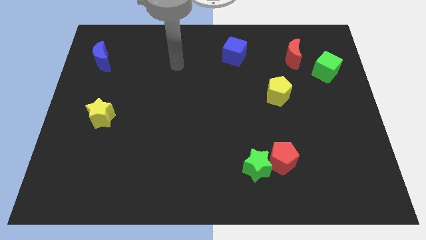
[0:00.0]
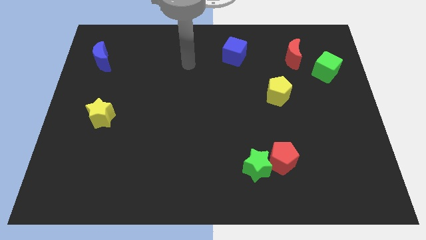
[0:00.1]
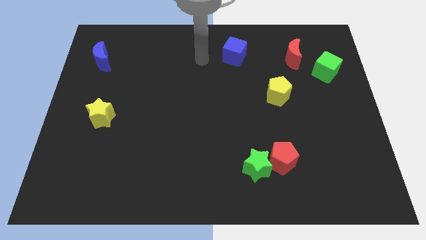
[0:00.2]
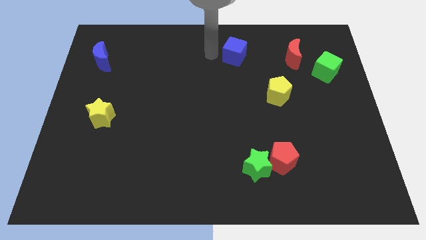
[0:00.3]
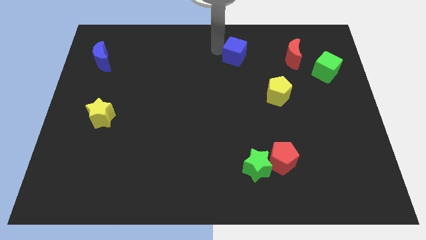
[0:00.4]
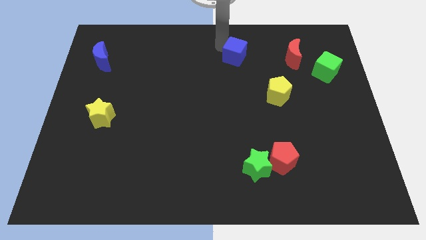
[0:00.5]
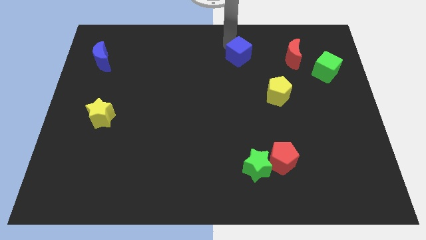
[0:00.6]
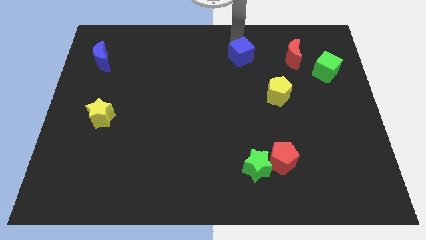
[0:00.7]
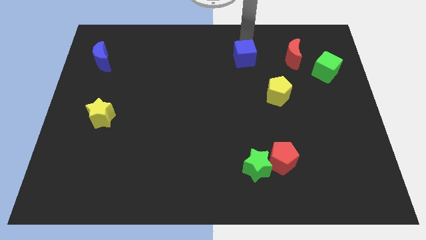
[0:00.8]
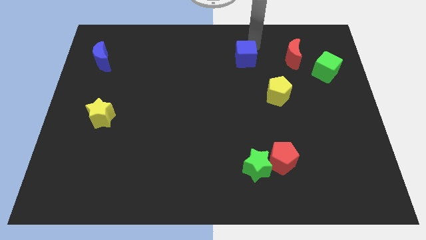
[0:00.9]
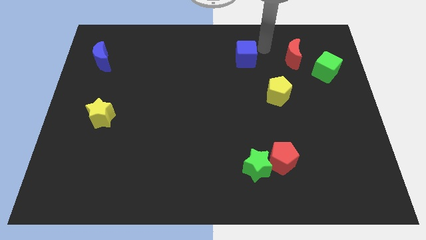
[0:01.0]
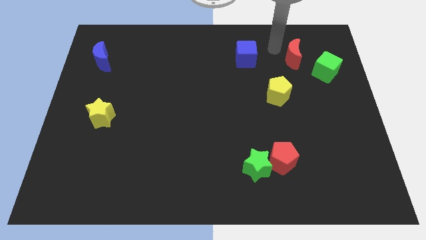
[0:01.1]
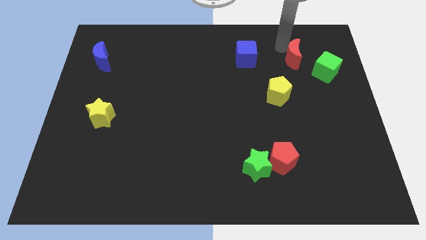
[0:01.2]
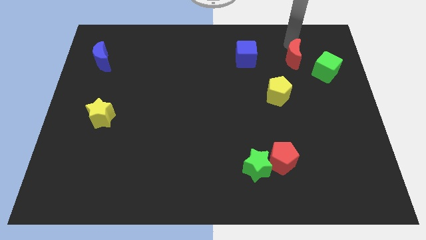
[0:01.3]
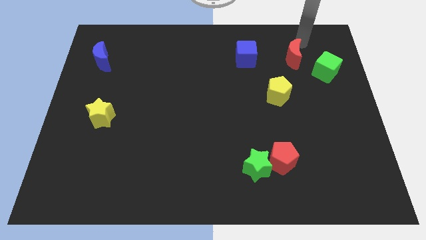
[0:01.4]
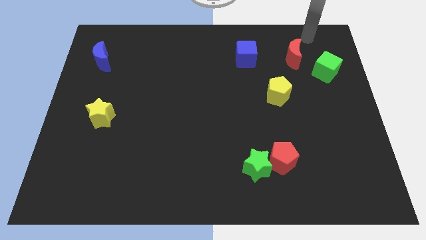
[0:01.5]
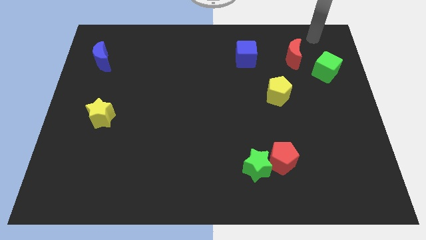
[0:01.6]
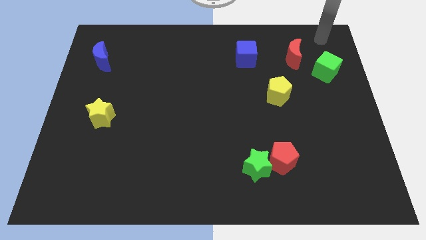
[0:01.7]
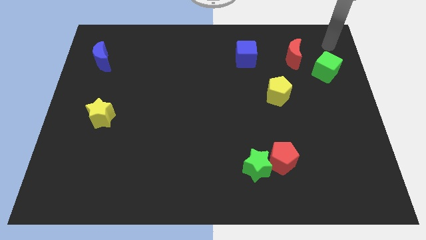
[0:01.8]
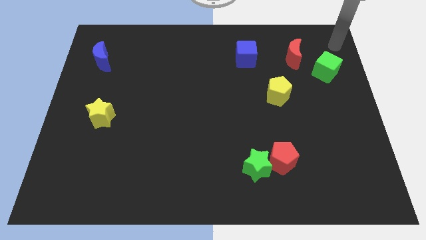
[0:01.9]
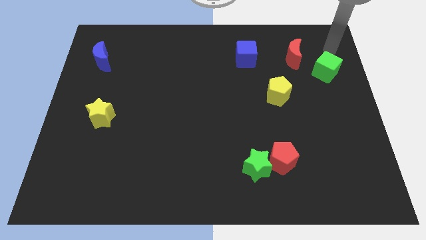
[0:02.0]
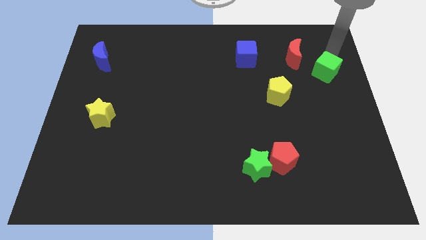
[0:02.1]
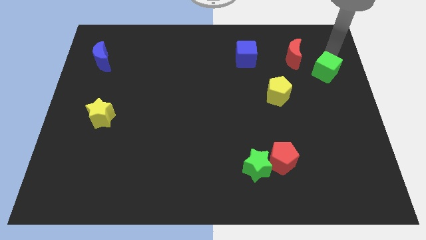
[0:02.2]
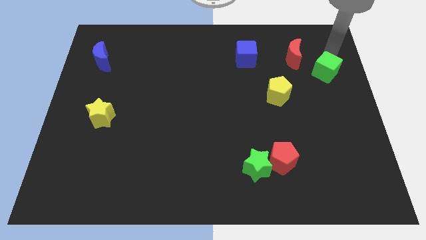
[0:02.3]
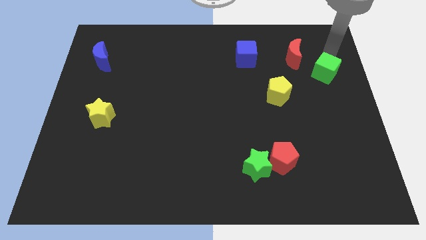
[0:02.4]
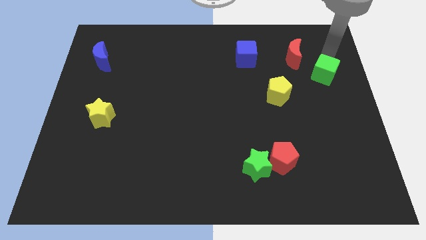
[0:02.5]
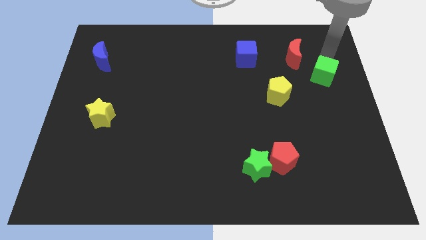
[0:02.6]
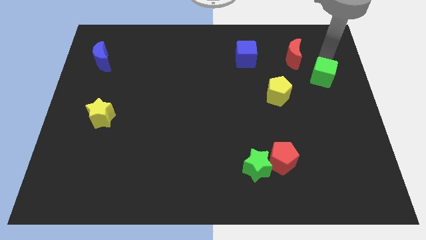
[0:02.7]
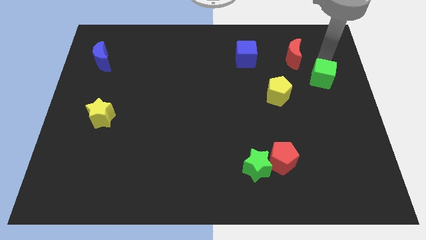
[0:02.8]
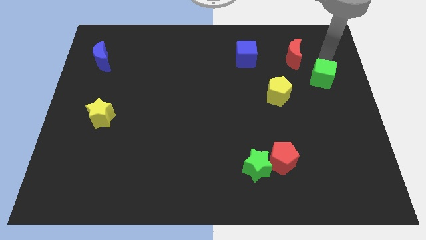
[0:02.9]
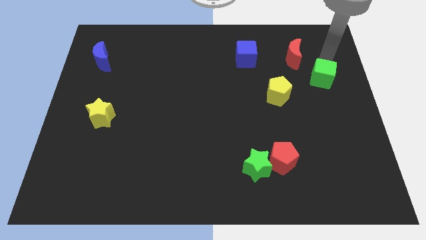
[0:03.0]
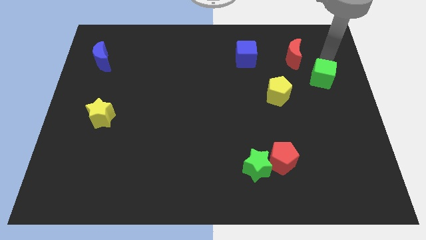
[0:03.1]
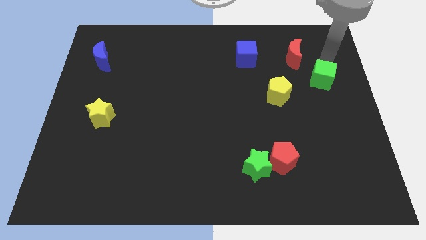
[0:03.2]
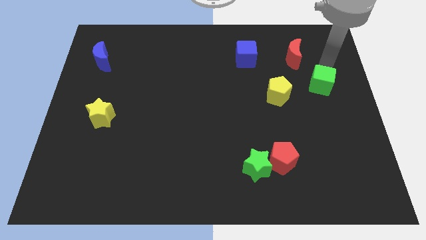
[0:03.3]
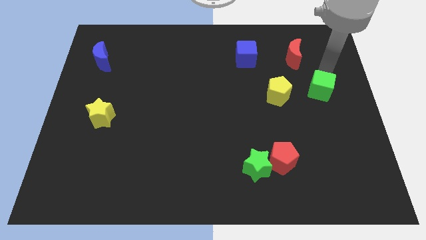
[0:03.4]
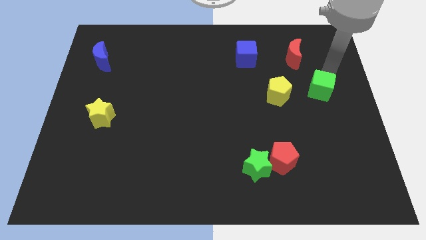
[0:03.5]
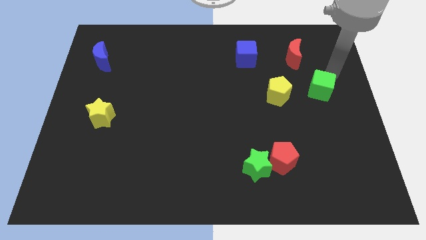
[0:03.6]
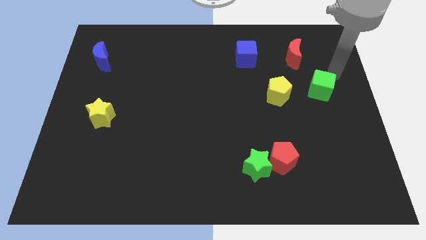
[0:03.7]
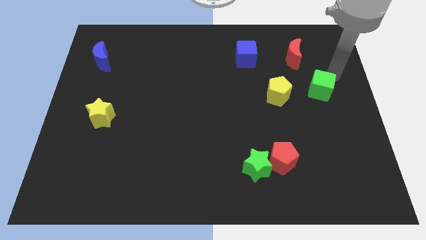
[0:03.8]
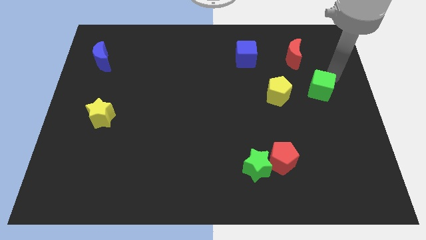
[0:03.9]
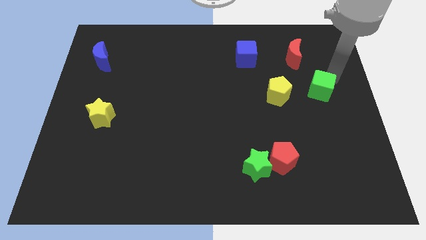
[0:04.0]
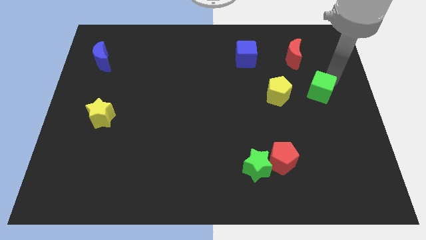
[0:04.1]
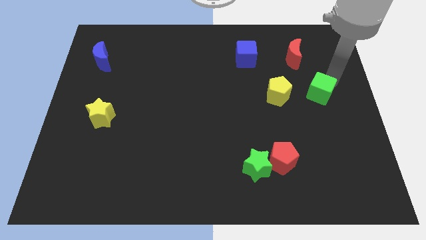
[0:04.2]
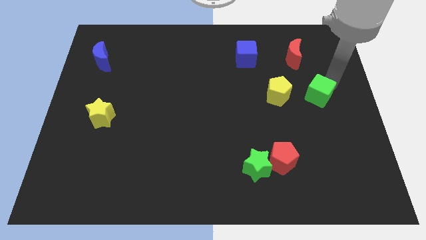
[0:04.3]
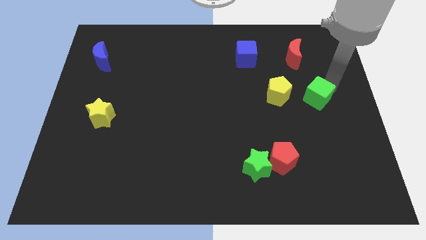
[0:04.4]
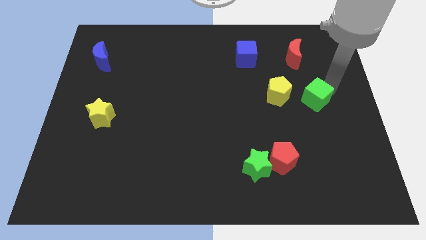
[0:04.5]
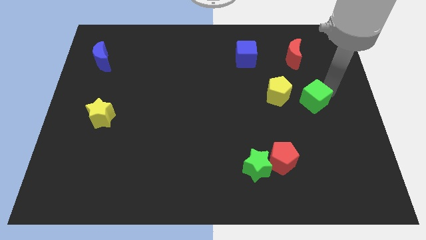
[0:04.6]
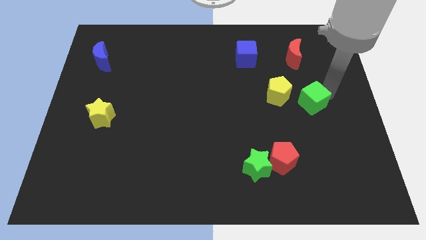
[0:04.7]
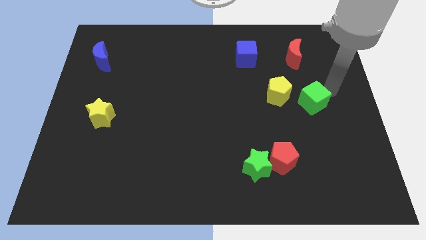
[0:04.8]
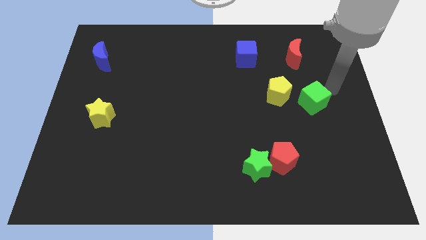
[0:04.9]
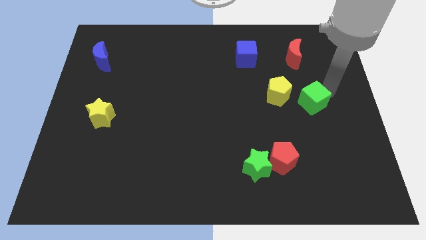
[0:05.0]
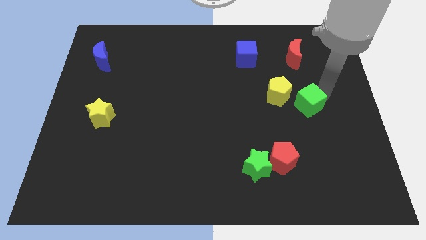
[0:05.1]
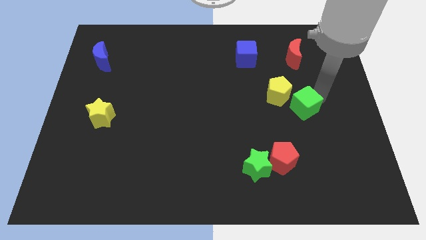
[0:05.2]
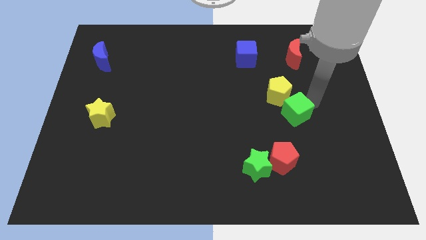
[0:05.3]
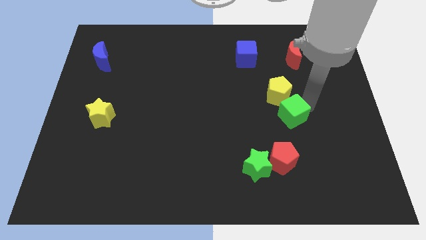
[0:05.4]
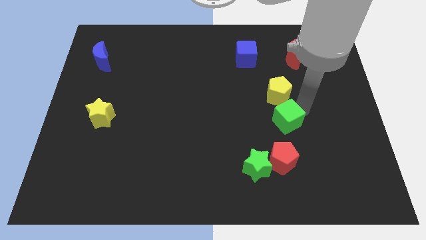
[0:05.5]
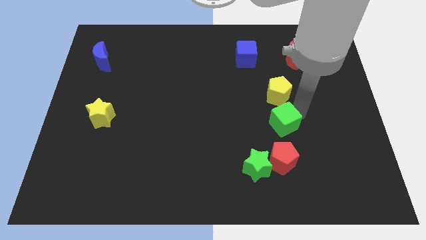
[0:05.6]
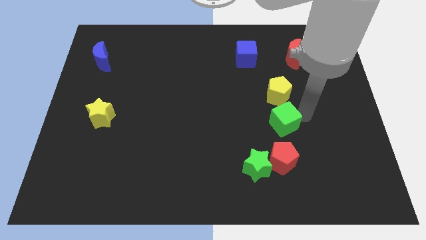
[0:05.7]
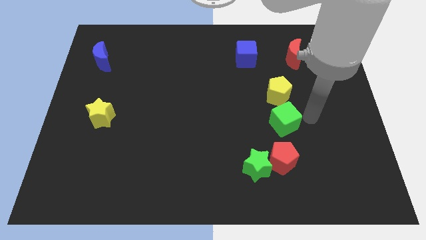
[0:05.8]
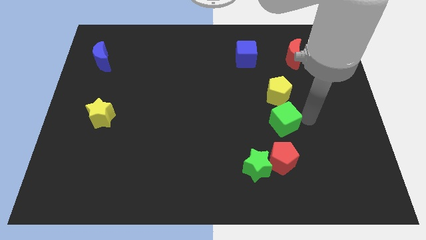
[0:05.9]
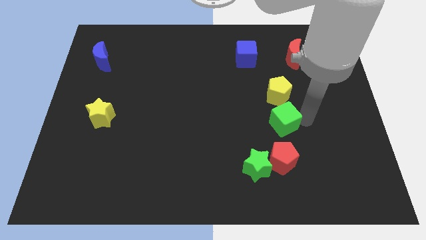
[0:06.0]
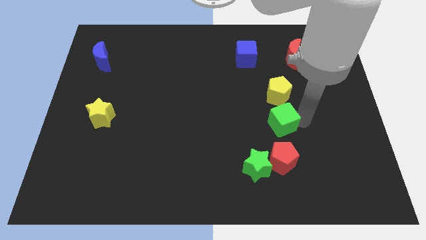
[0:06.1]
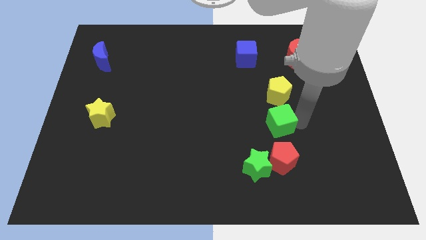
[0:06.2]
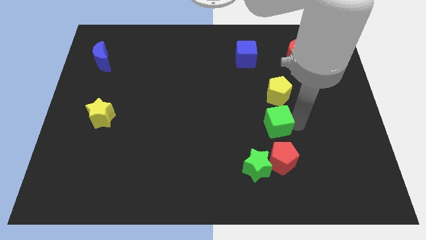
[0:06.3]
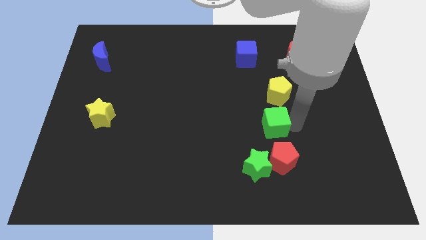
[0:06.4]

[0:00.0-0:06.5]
put the green cube above the green star
